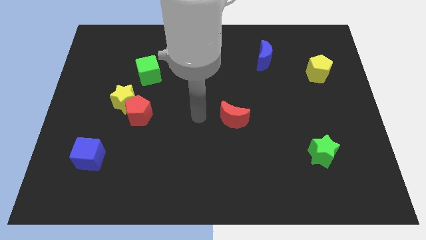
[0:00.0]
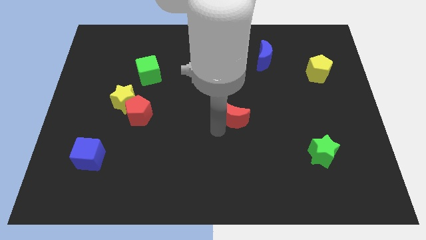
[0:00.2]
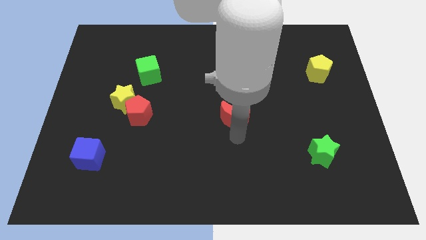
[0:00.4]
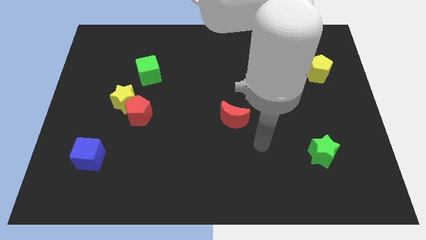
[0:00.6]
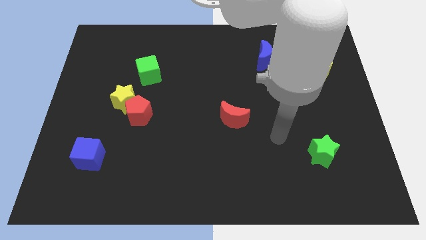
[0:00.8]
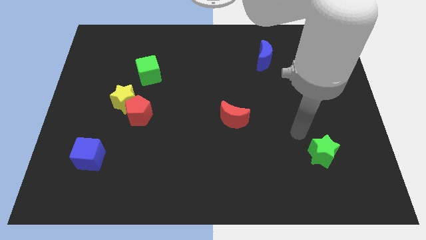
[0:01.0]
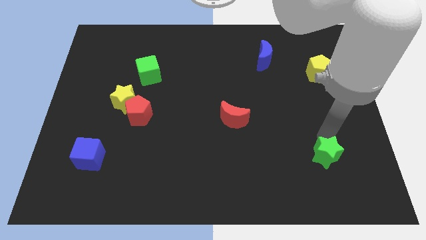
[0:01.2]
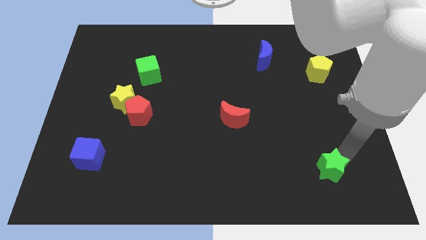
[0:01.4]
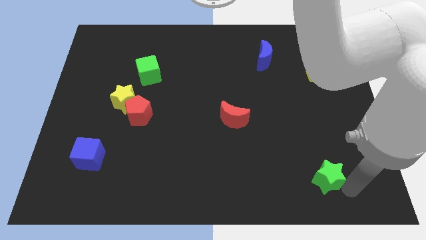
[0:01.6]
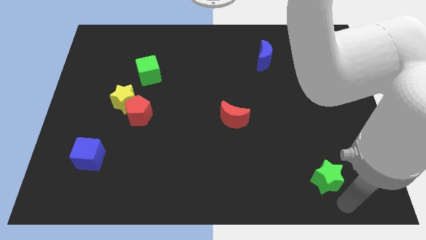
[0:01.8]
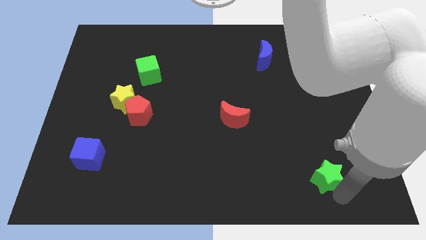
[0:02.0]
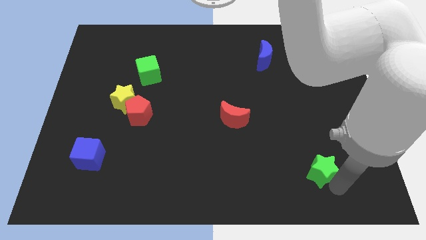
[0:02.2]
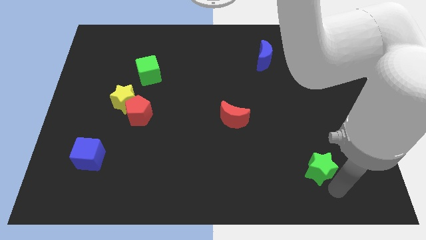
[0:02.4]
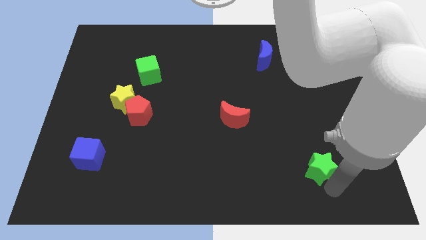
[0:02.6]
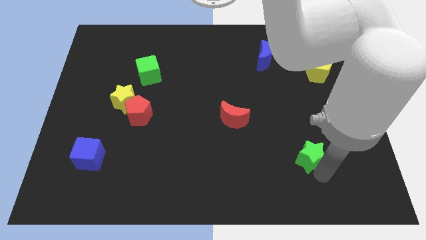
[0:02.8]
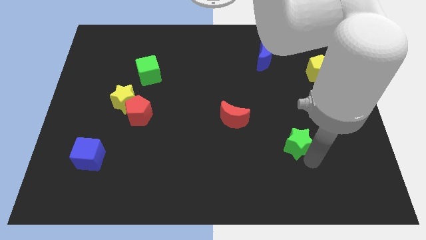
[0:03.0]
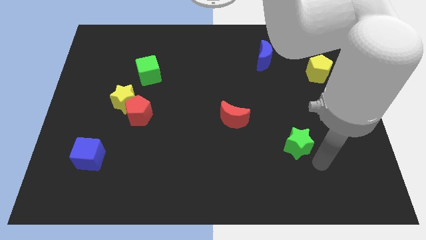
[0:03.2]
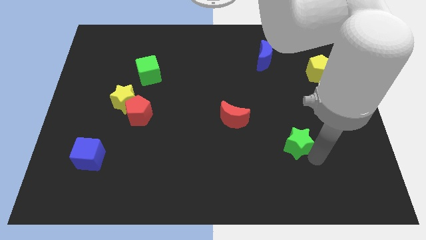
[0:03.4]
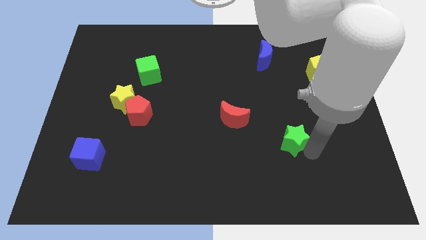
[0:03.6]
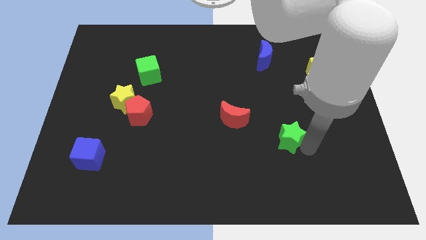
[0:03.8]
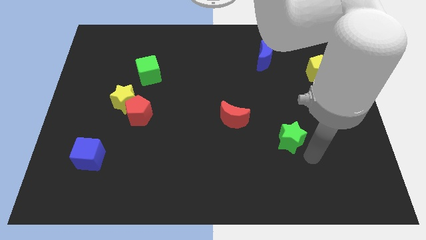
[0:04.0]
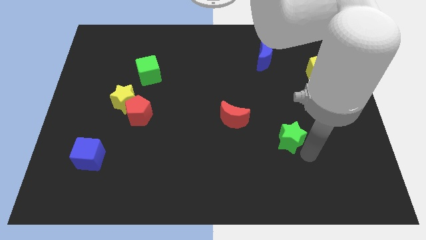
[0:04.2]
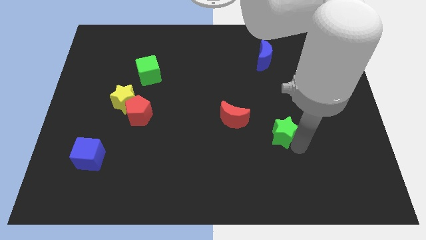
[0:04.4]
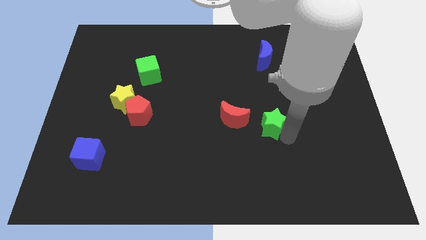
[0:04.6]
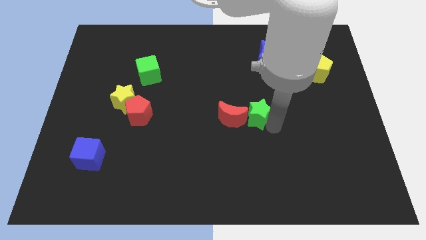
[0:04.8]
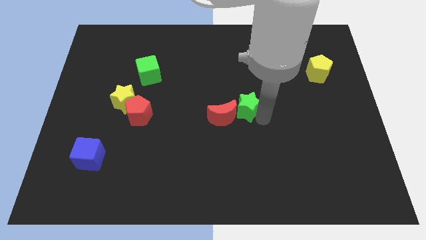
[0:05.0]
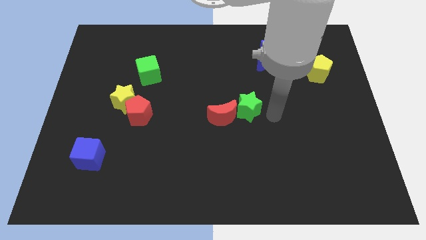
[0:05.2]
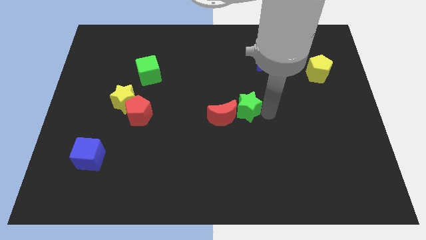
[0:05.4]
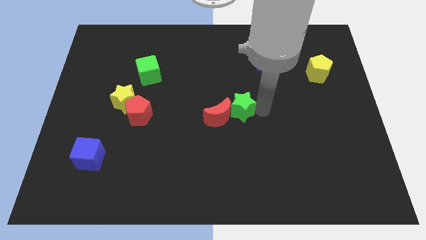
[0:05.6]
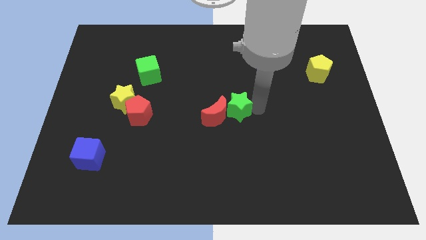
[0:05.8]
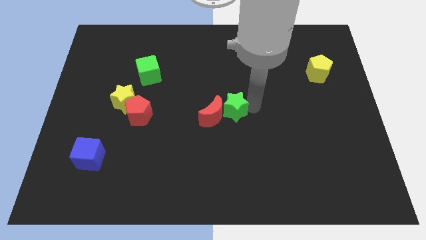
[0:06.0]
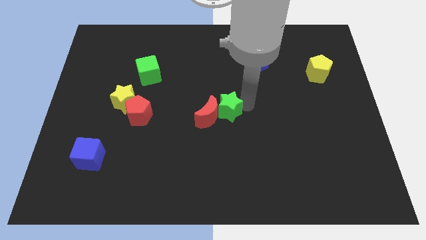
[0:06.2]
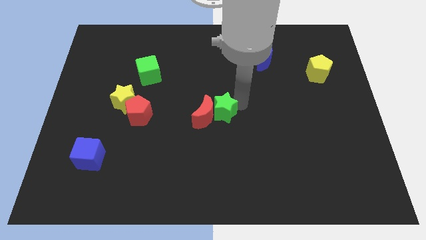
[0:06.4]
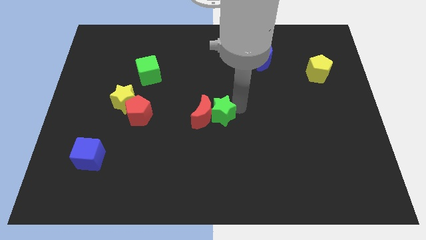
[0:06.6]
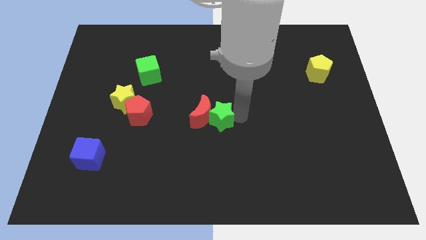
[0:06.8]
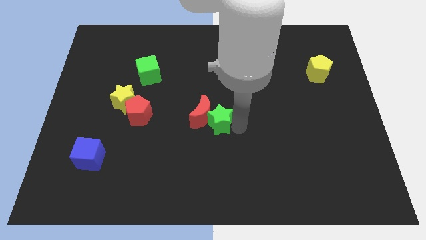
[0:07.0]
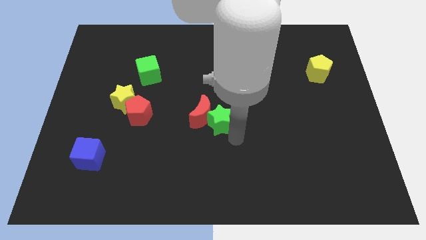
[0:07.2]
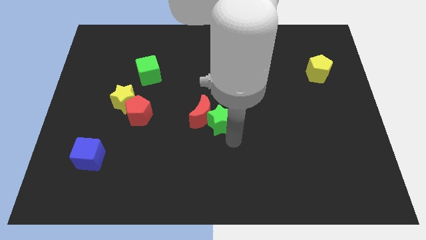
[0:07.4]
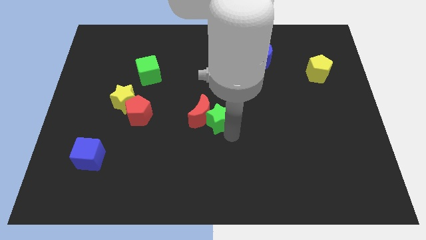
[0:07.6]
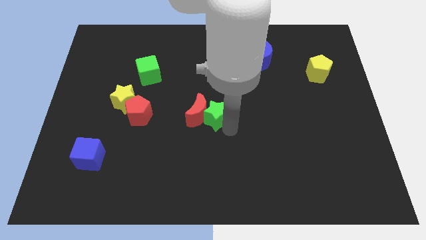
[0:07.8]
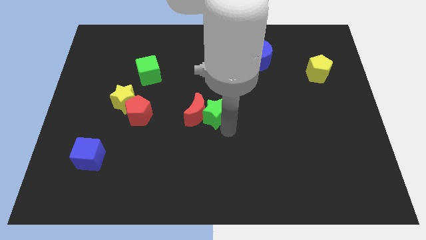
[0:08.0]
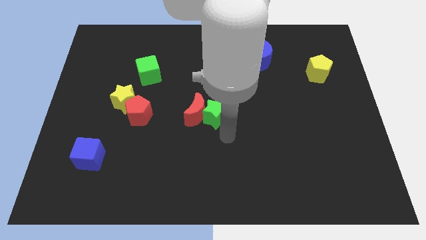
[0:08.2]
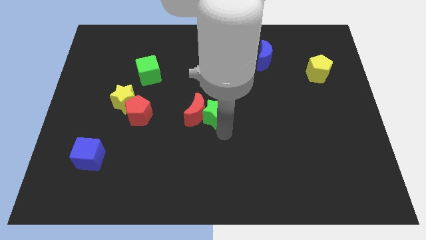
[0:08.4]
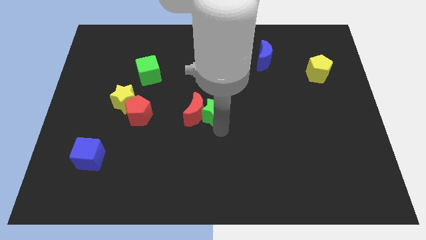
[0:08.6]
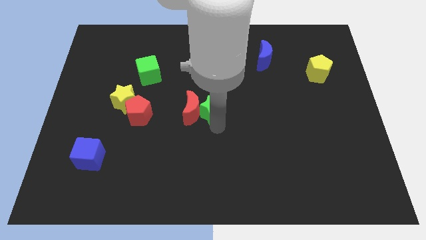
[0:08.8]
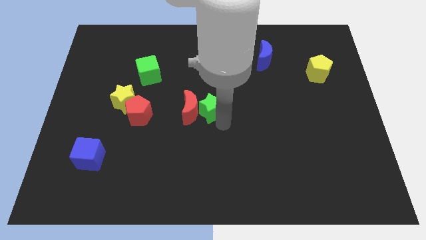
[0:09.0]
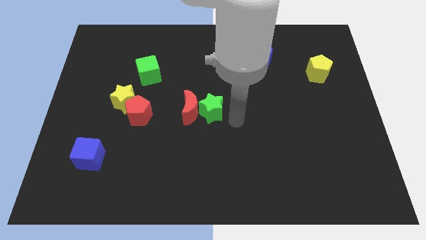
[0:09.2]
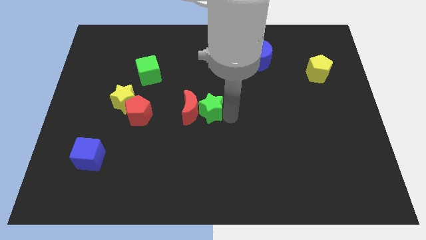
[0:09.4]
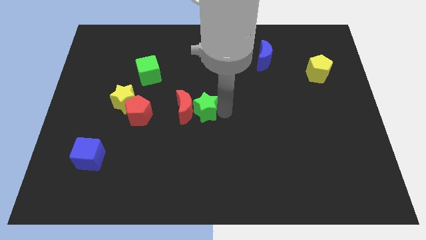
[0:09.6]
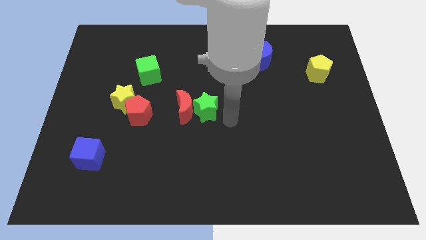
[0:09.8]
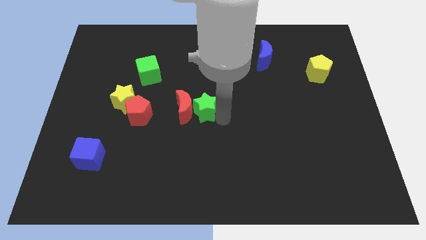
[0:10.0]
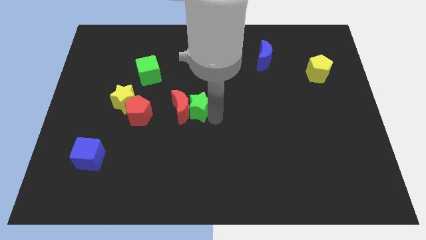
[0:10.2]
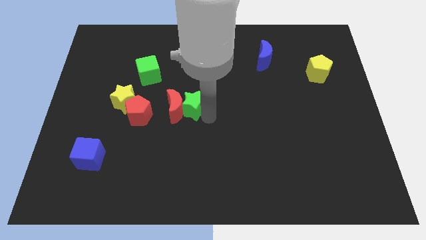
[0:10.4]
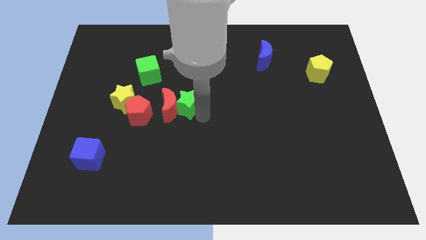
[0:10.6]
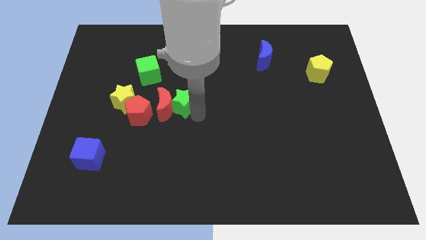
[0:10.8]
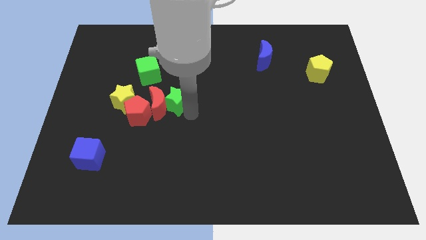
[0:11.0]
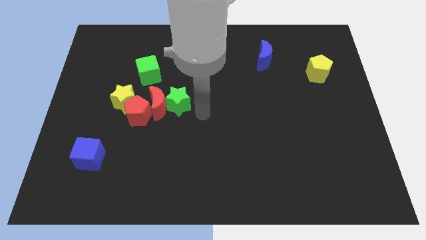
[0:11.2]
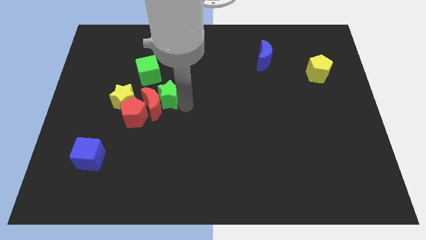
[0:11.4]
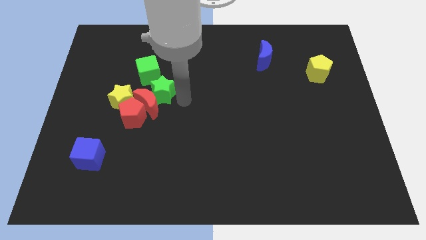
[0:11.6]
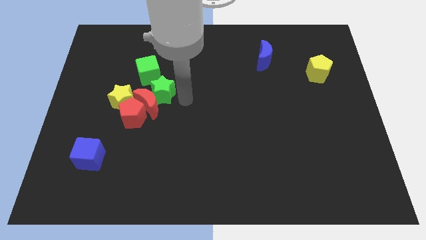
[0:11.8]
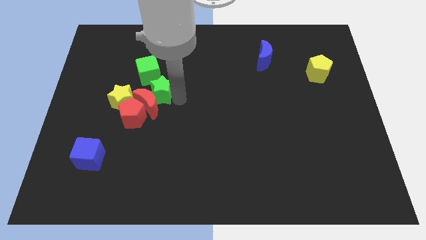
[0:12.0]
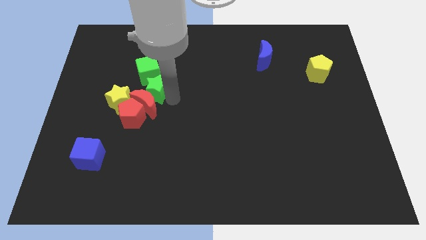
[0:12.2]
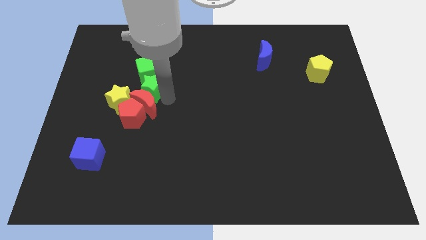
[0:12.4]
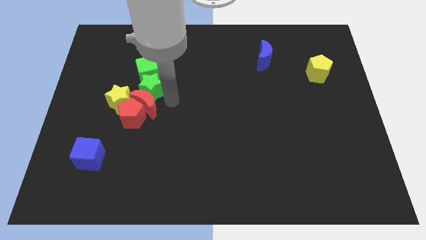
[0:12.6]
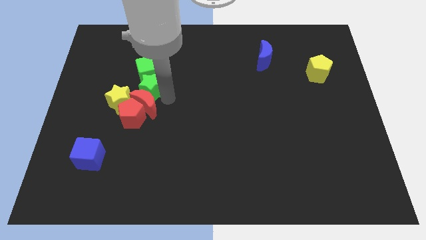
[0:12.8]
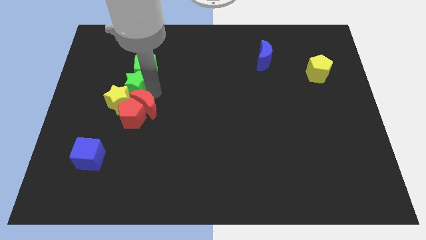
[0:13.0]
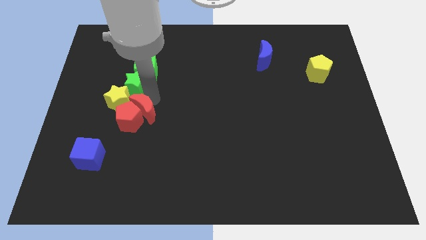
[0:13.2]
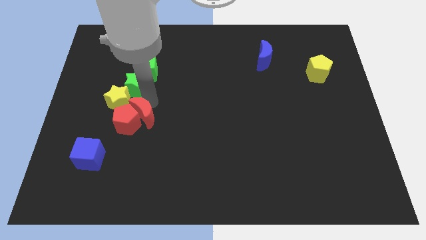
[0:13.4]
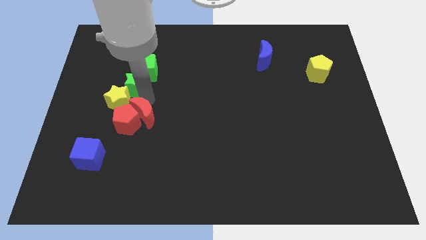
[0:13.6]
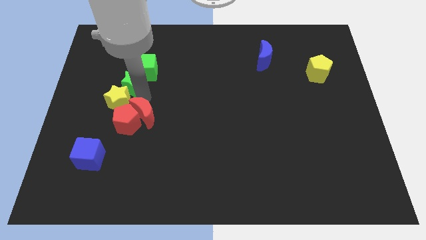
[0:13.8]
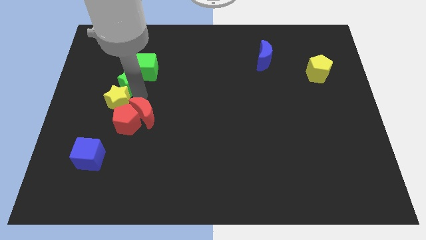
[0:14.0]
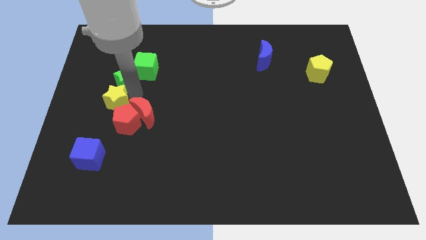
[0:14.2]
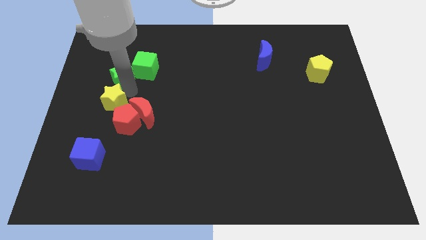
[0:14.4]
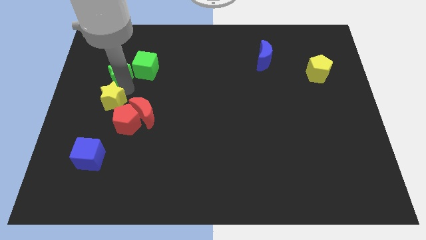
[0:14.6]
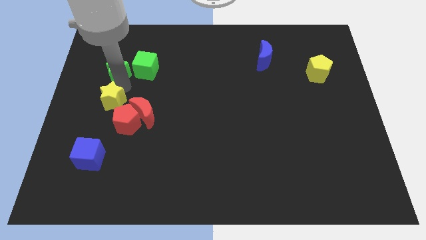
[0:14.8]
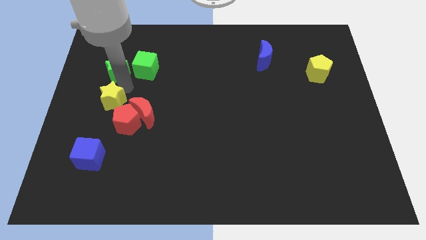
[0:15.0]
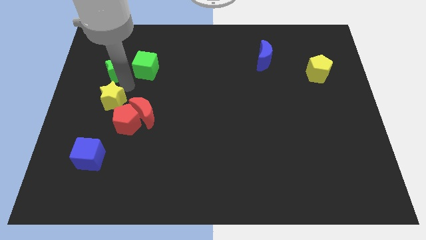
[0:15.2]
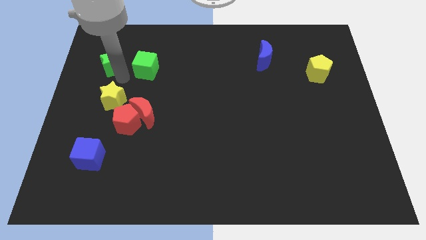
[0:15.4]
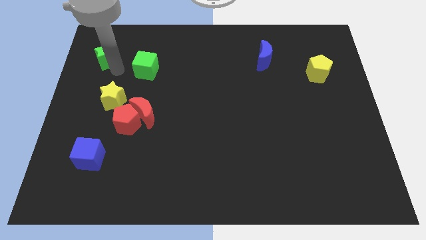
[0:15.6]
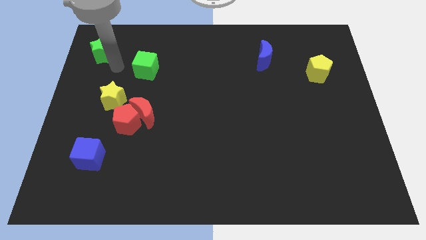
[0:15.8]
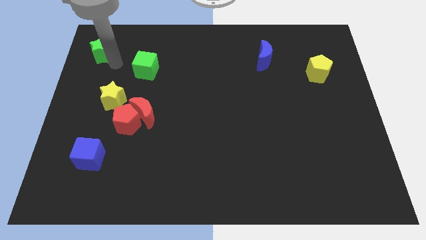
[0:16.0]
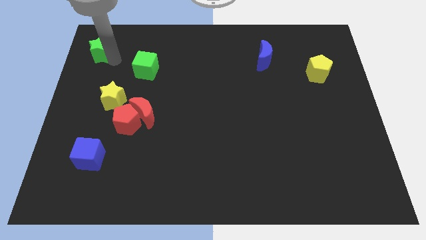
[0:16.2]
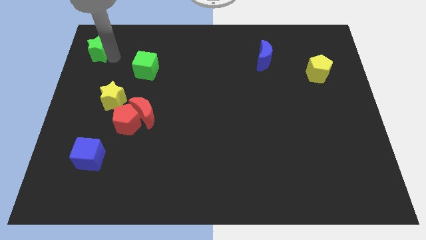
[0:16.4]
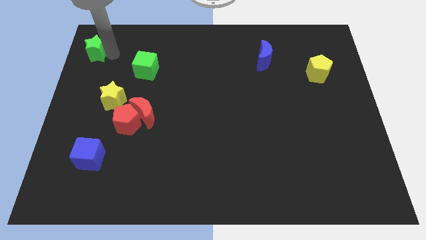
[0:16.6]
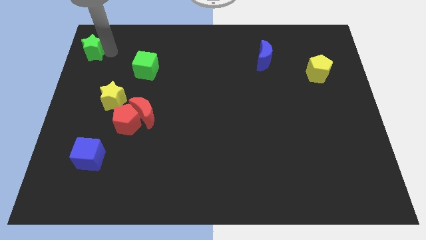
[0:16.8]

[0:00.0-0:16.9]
move the green star to the top left
